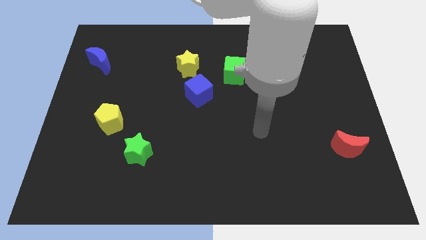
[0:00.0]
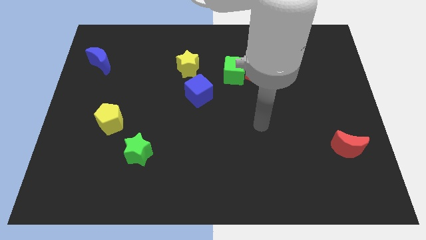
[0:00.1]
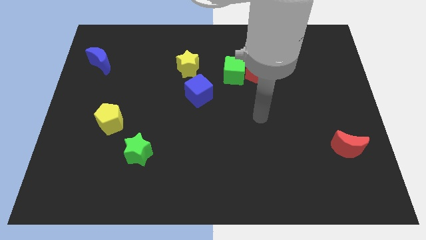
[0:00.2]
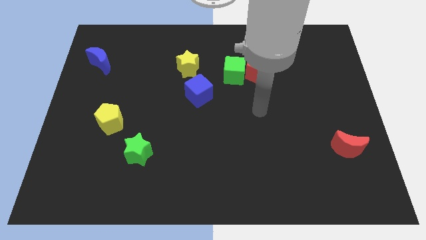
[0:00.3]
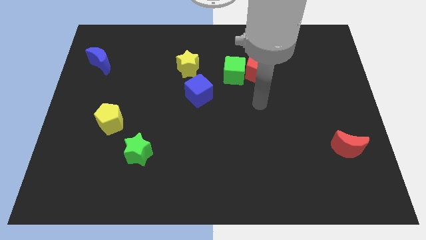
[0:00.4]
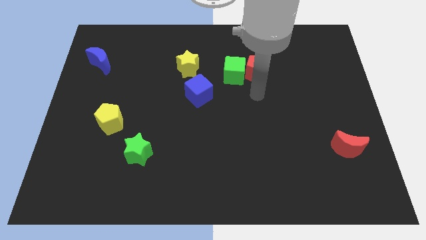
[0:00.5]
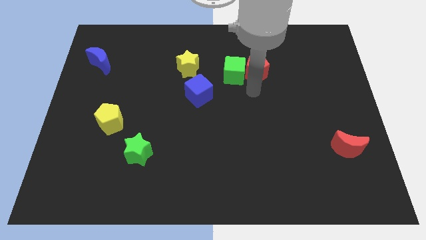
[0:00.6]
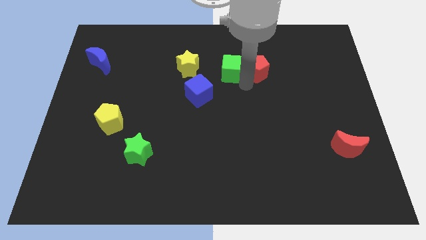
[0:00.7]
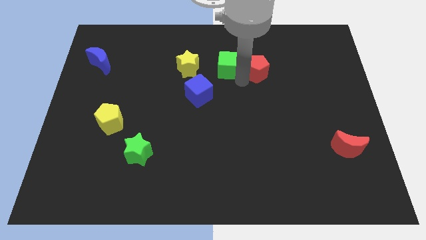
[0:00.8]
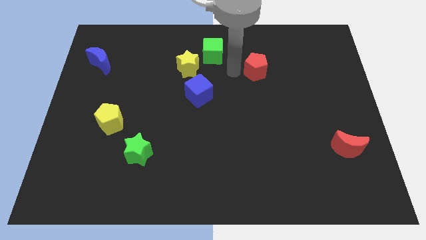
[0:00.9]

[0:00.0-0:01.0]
separate the red pentagon from the green cube

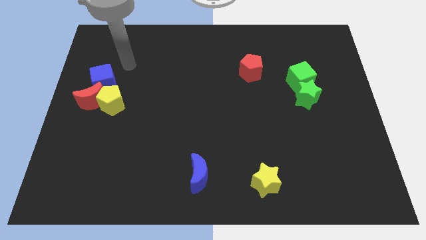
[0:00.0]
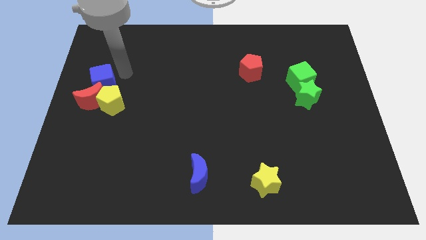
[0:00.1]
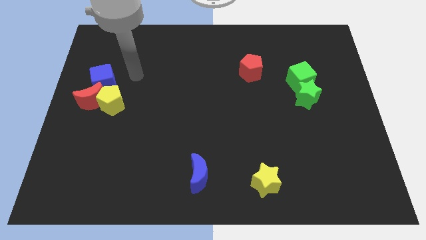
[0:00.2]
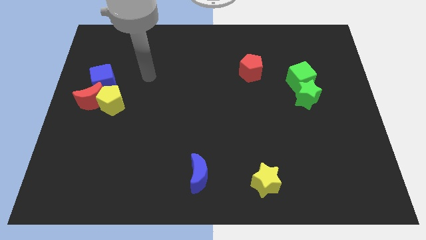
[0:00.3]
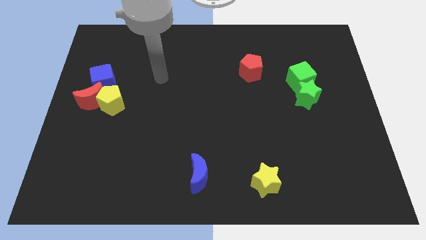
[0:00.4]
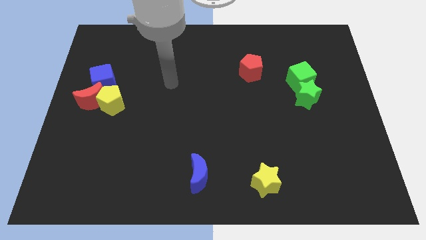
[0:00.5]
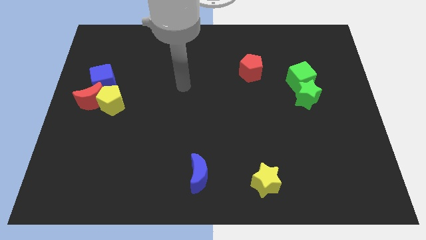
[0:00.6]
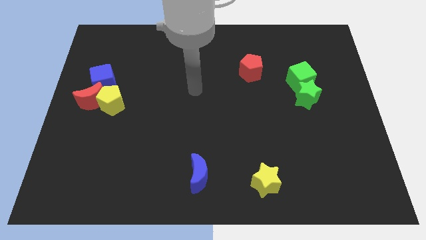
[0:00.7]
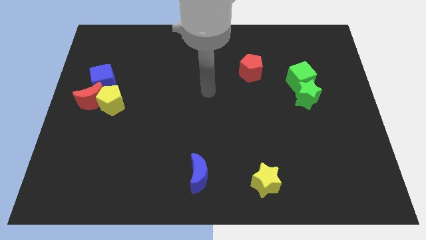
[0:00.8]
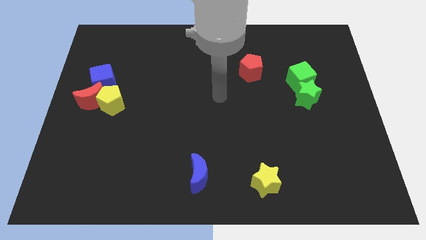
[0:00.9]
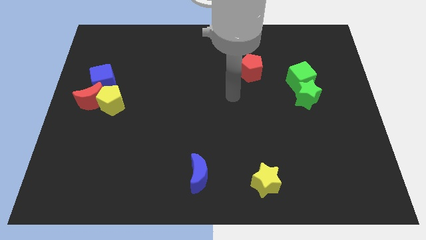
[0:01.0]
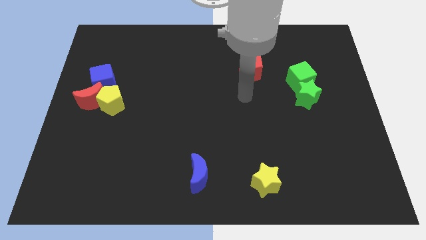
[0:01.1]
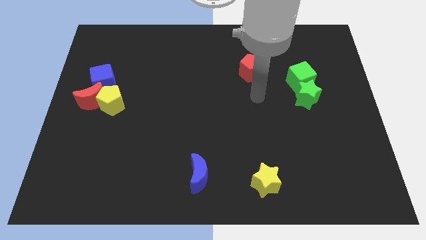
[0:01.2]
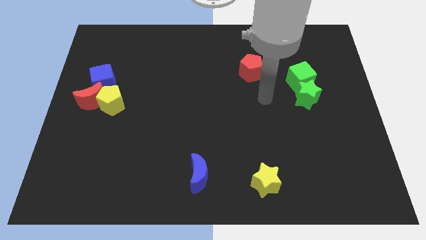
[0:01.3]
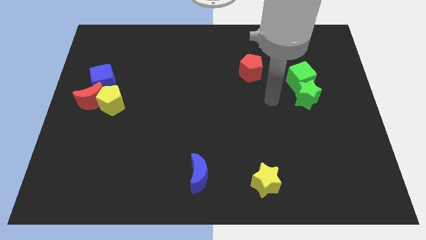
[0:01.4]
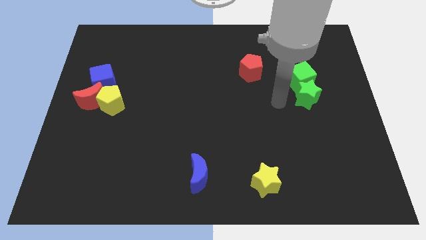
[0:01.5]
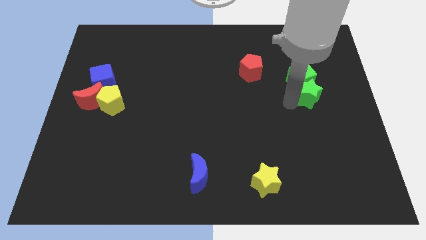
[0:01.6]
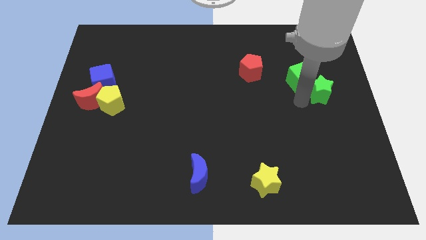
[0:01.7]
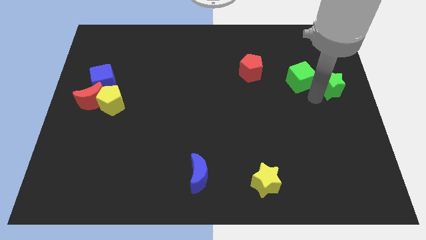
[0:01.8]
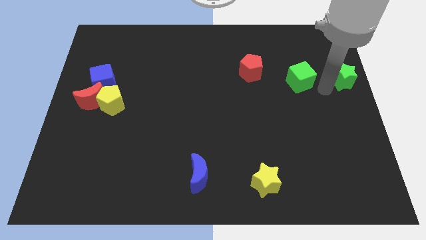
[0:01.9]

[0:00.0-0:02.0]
pull the green cube apart from the green star

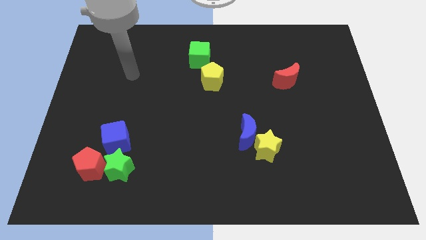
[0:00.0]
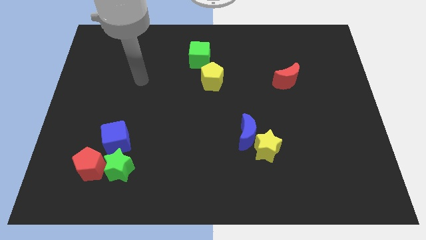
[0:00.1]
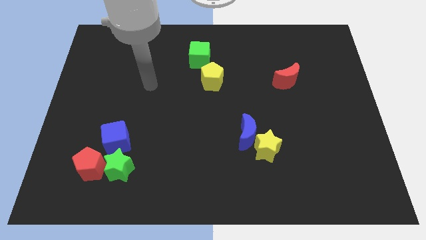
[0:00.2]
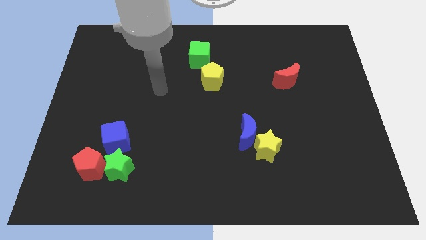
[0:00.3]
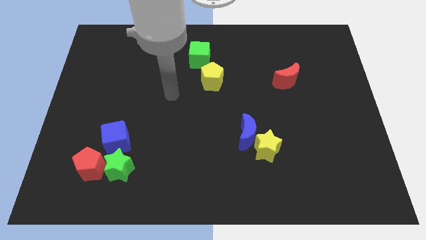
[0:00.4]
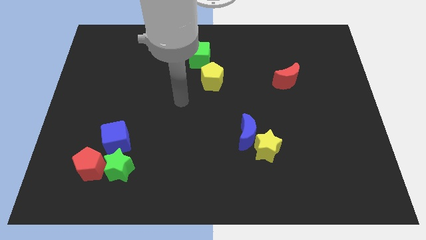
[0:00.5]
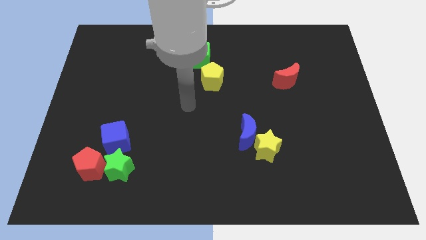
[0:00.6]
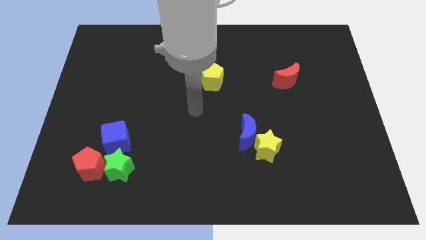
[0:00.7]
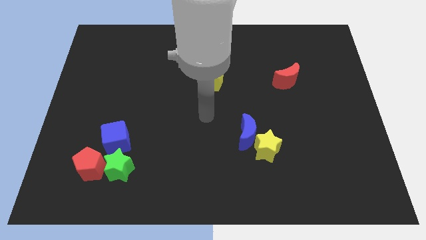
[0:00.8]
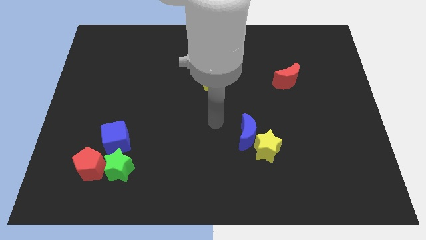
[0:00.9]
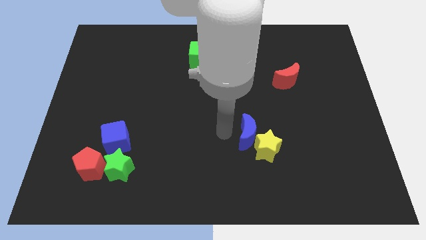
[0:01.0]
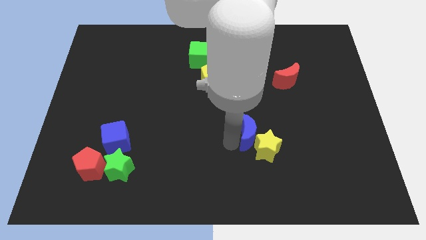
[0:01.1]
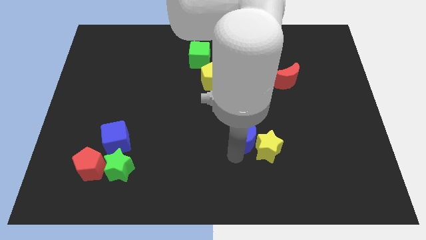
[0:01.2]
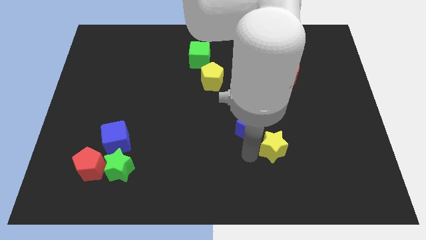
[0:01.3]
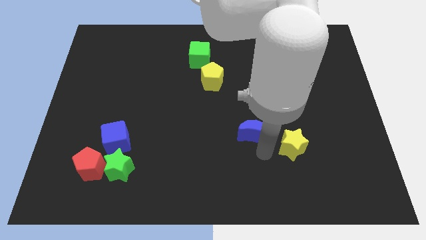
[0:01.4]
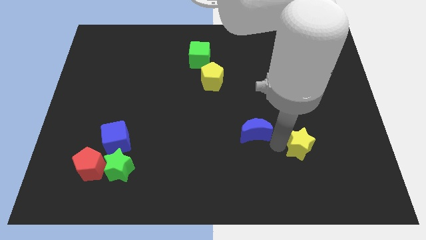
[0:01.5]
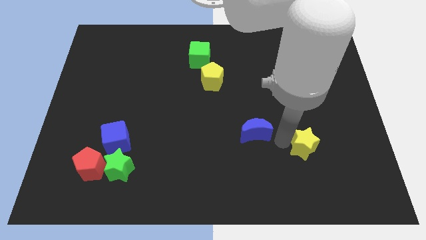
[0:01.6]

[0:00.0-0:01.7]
move the blue moon away from the yellow star

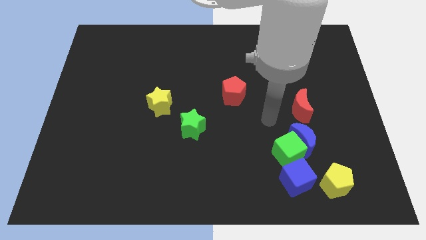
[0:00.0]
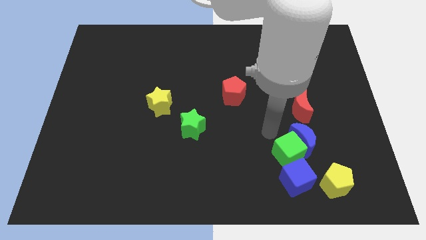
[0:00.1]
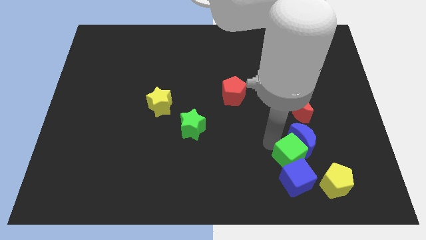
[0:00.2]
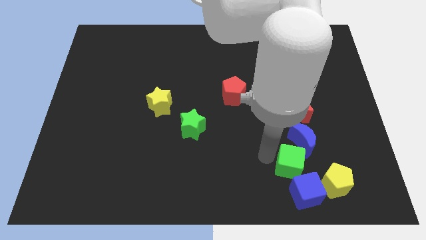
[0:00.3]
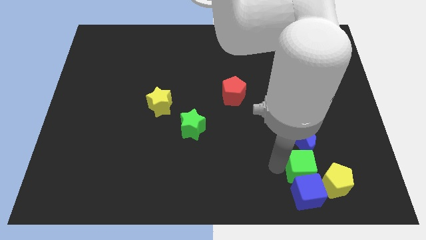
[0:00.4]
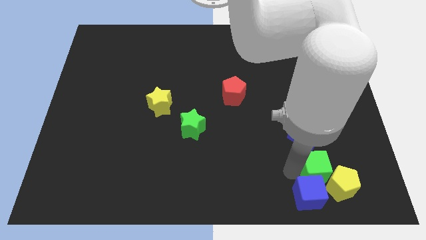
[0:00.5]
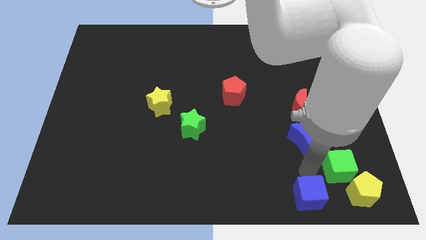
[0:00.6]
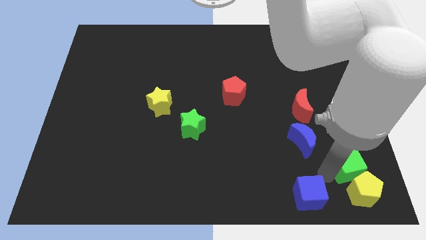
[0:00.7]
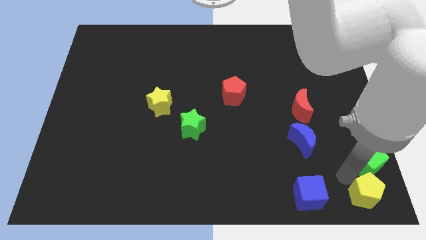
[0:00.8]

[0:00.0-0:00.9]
move the green cube away from the blue moon and blue cube

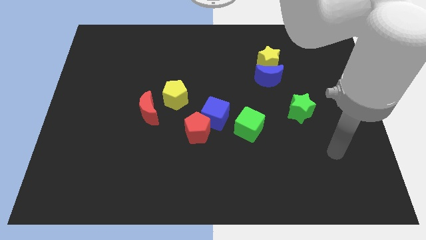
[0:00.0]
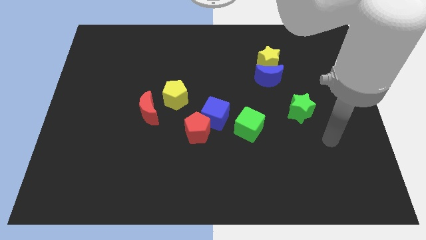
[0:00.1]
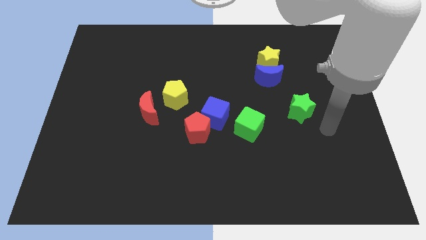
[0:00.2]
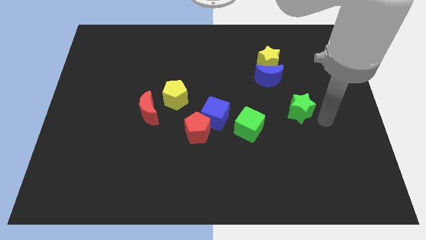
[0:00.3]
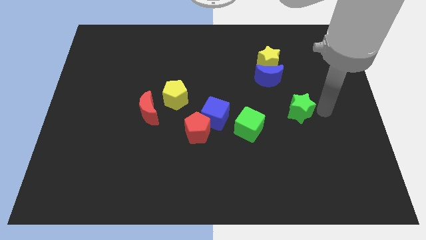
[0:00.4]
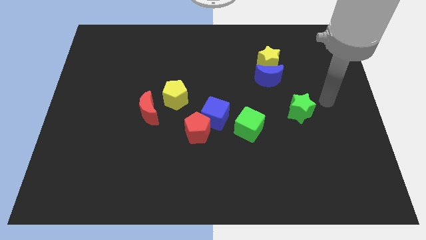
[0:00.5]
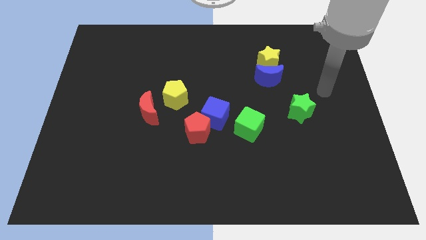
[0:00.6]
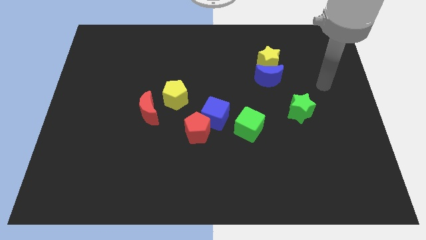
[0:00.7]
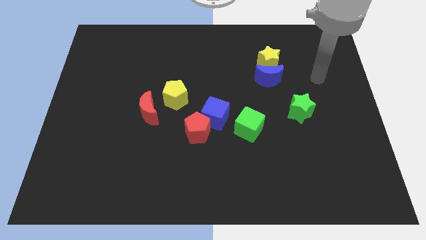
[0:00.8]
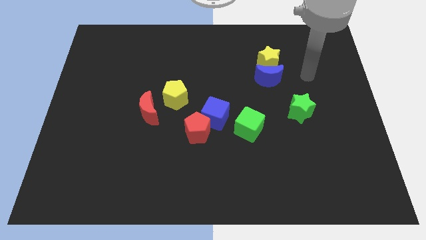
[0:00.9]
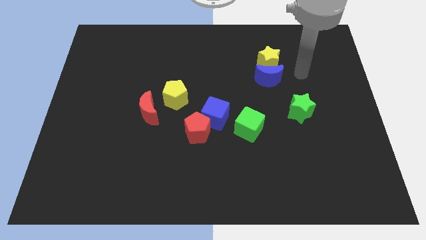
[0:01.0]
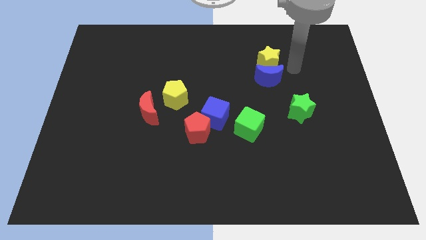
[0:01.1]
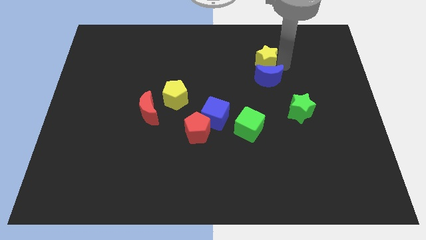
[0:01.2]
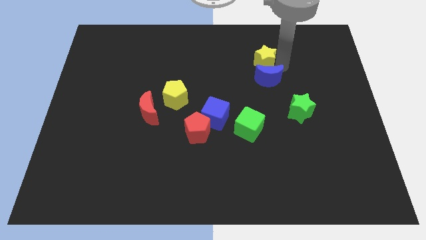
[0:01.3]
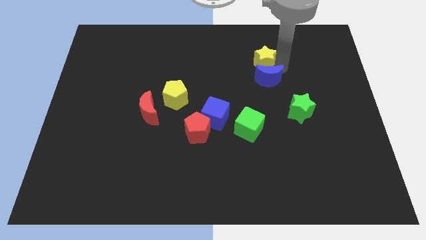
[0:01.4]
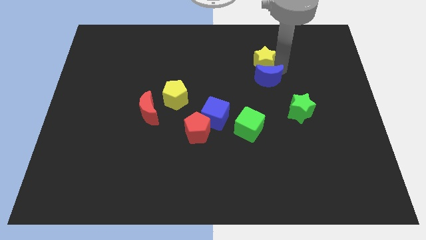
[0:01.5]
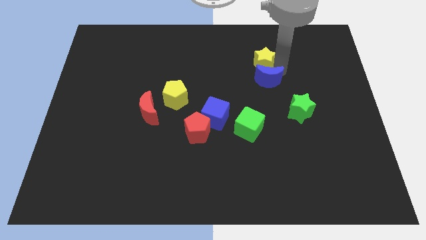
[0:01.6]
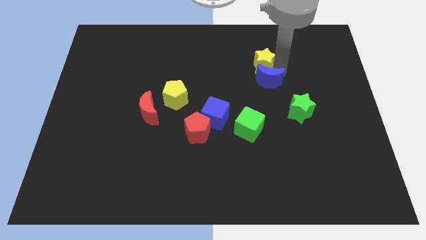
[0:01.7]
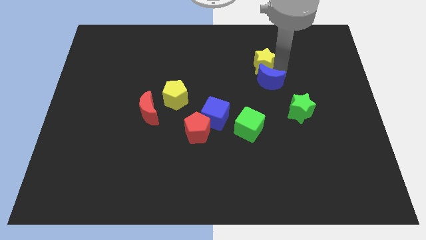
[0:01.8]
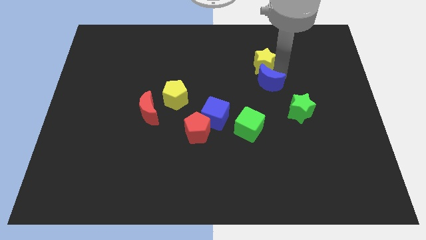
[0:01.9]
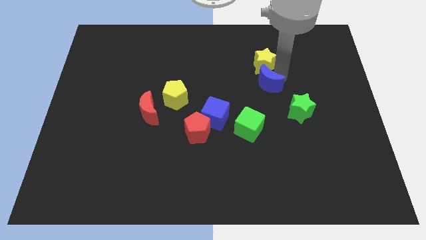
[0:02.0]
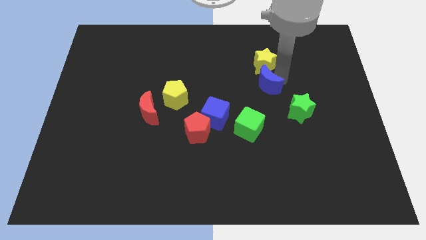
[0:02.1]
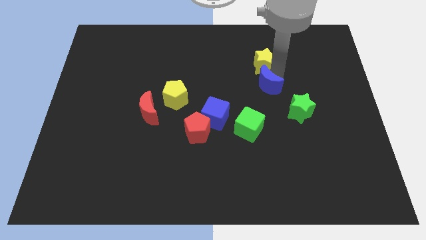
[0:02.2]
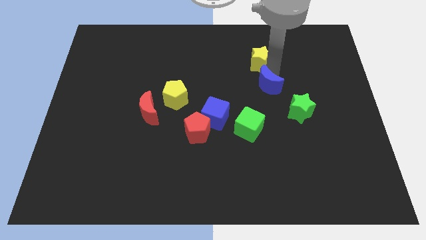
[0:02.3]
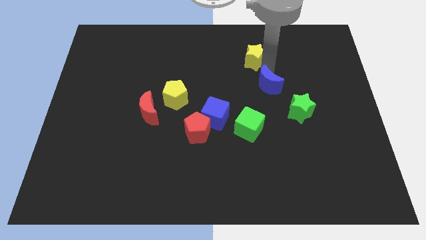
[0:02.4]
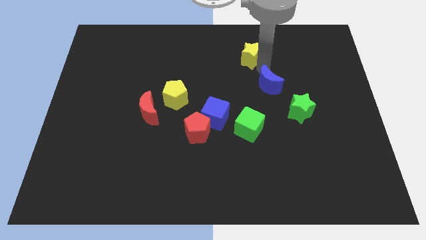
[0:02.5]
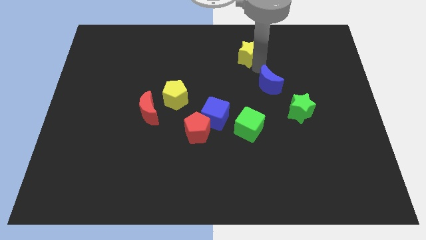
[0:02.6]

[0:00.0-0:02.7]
separate the blue moon from the yellow star

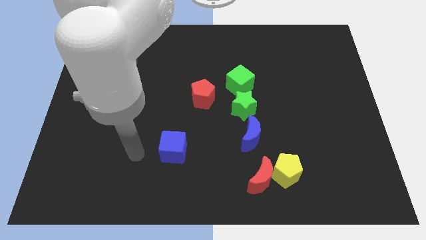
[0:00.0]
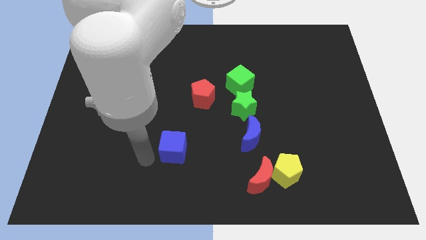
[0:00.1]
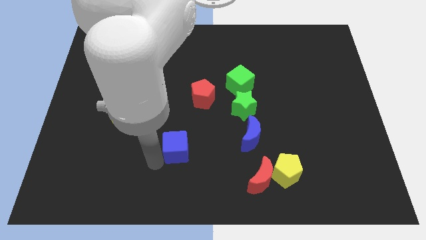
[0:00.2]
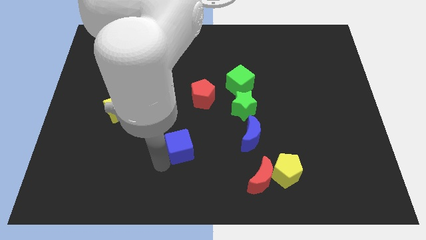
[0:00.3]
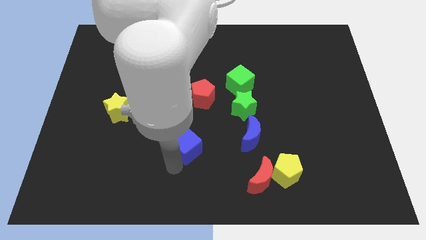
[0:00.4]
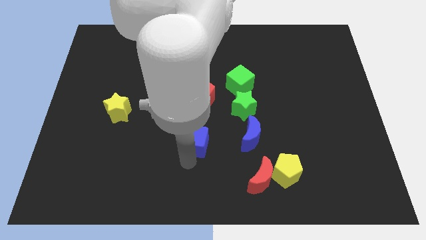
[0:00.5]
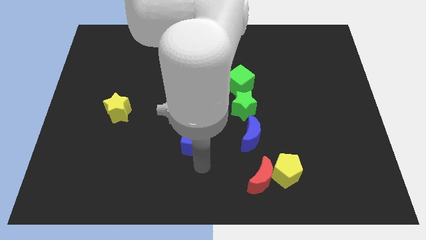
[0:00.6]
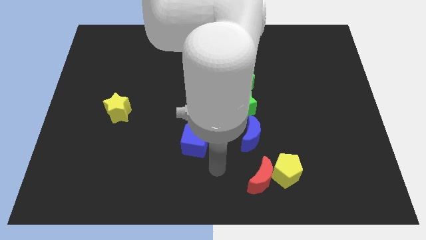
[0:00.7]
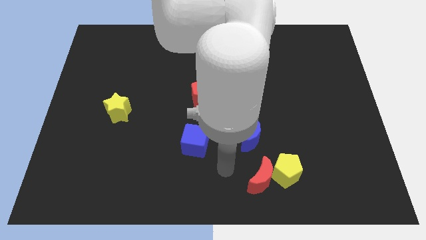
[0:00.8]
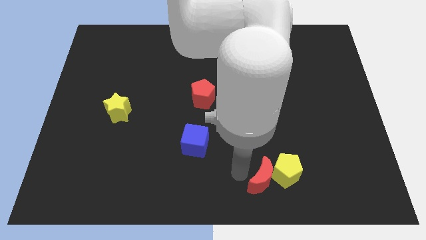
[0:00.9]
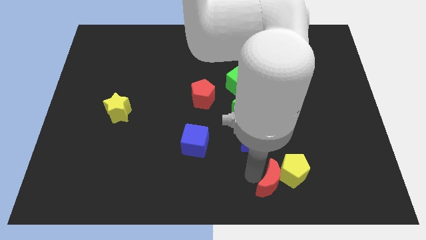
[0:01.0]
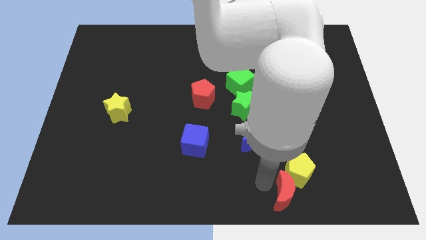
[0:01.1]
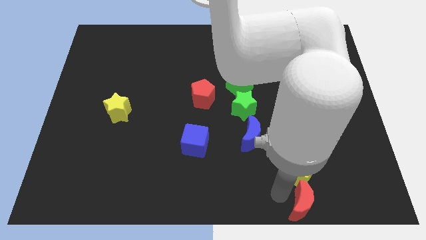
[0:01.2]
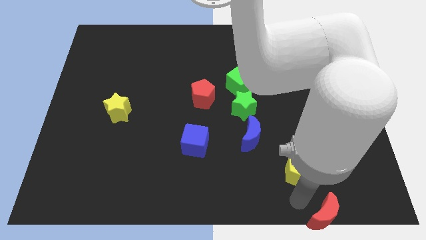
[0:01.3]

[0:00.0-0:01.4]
separate the yellow pentagon from the red moon
